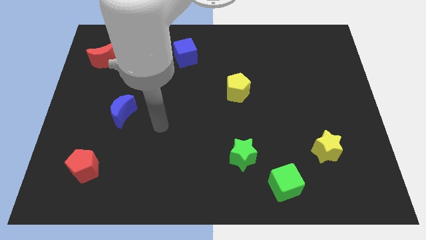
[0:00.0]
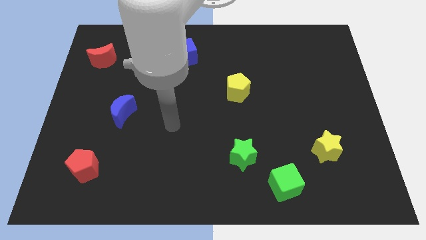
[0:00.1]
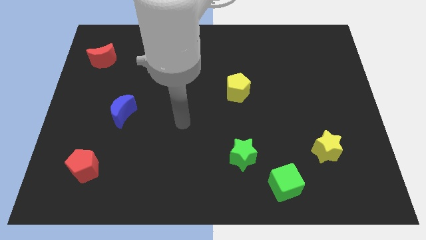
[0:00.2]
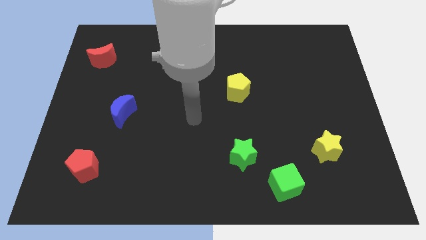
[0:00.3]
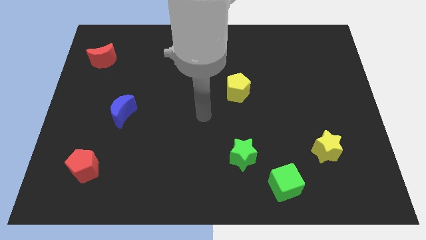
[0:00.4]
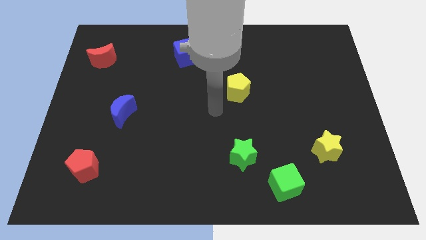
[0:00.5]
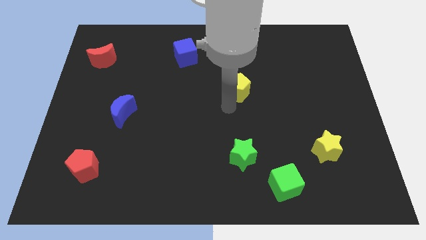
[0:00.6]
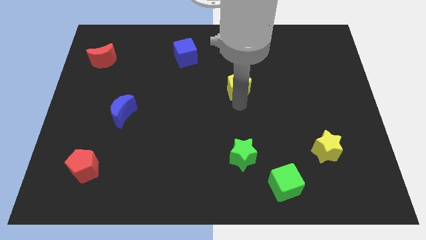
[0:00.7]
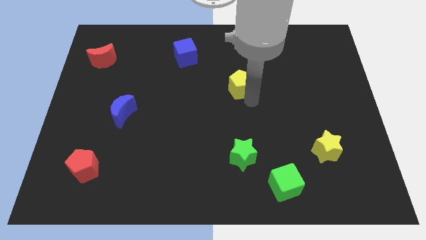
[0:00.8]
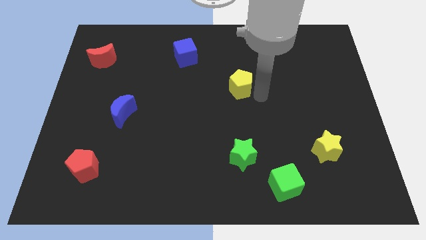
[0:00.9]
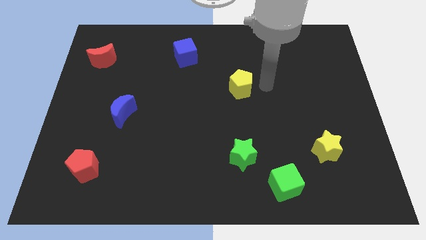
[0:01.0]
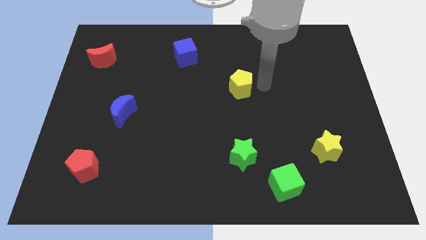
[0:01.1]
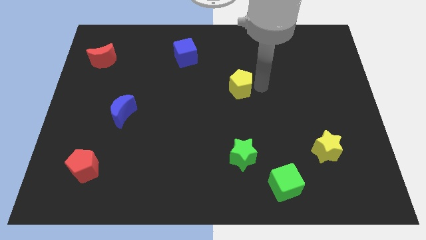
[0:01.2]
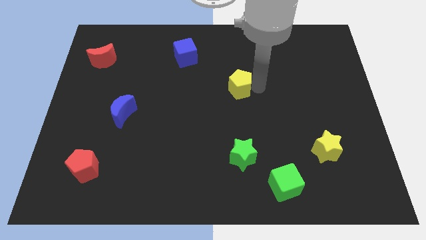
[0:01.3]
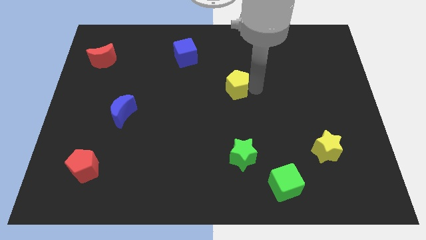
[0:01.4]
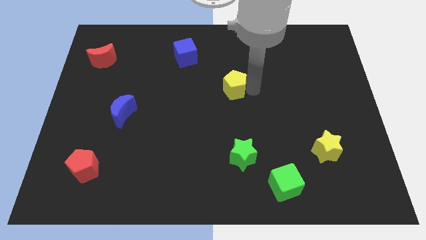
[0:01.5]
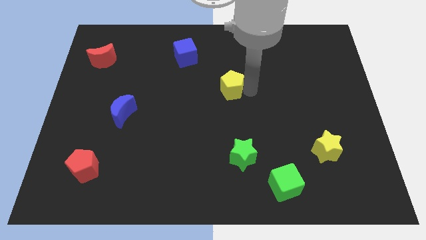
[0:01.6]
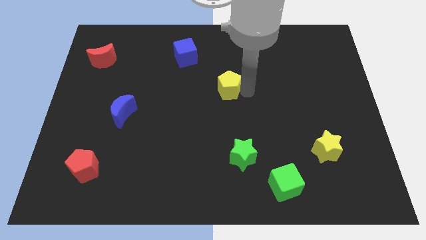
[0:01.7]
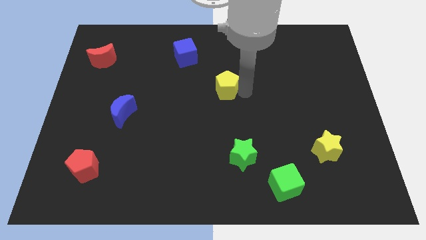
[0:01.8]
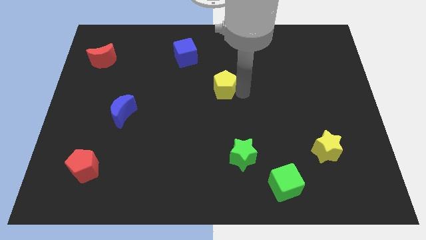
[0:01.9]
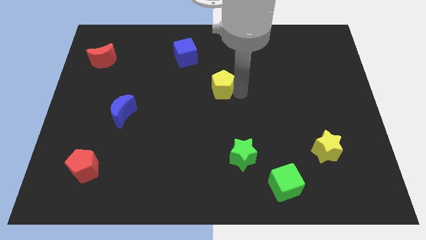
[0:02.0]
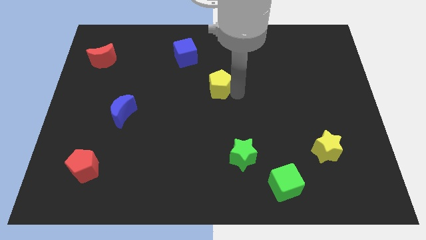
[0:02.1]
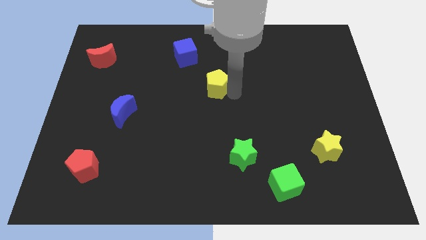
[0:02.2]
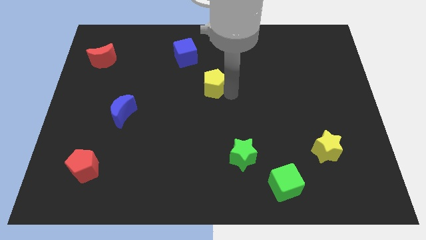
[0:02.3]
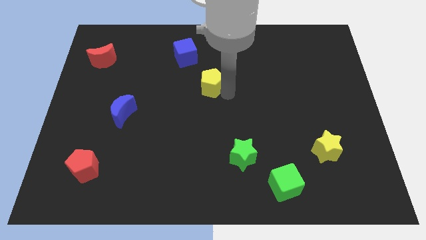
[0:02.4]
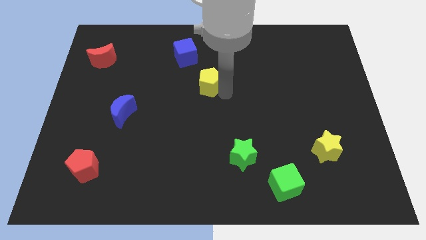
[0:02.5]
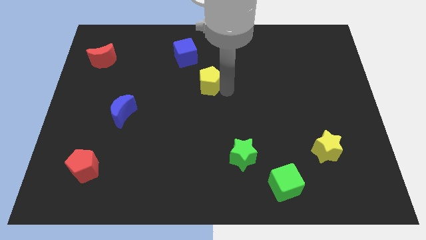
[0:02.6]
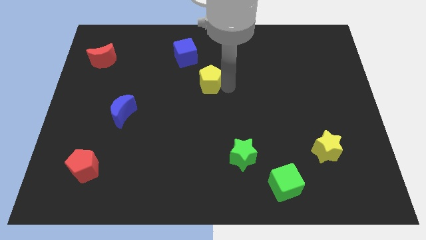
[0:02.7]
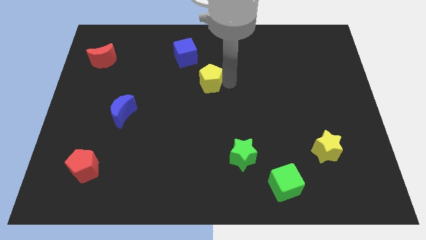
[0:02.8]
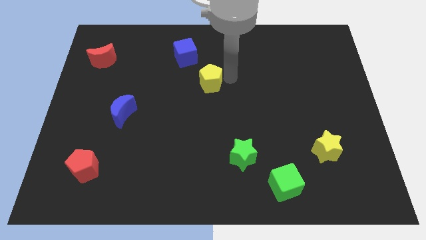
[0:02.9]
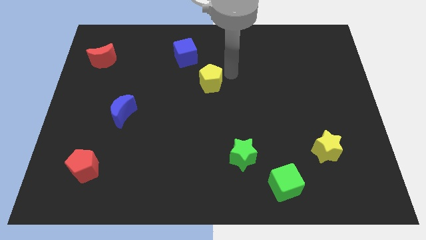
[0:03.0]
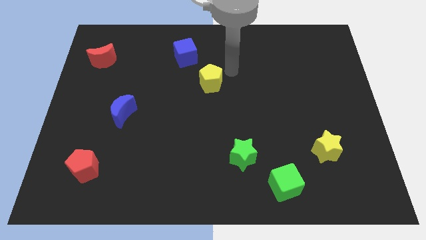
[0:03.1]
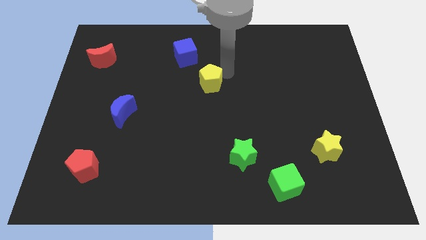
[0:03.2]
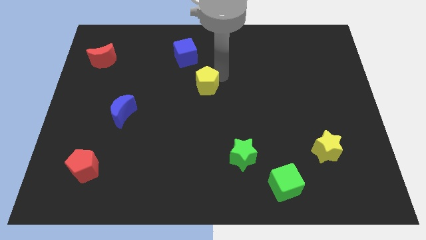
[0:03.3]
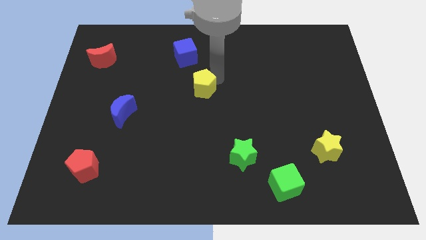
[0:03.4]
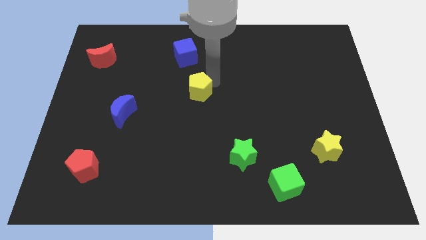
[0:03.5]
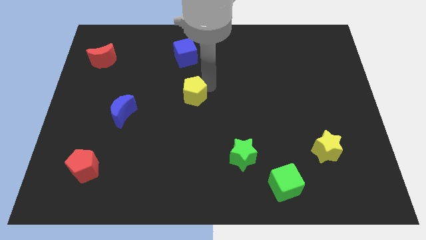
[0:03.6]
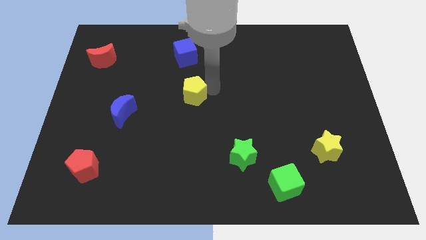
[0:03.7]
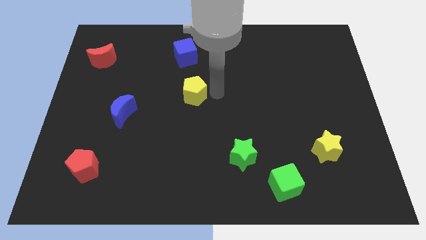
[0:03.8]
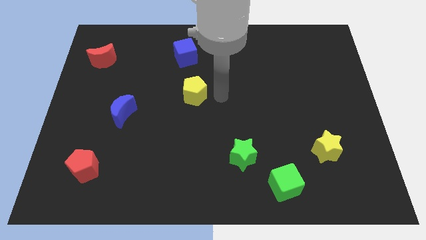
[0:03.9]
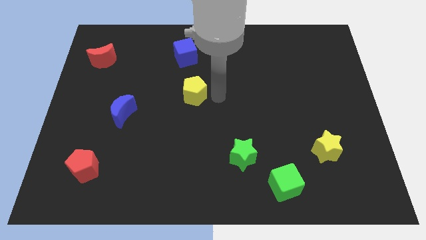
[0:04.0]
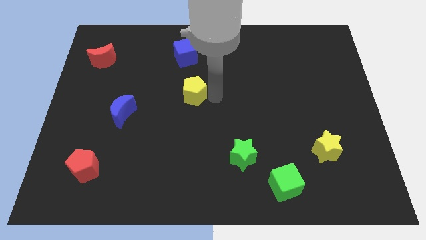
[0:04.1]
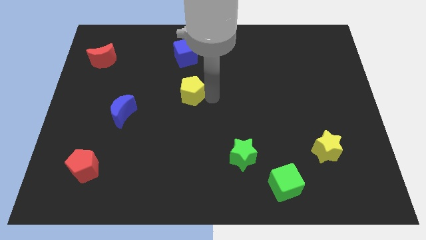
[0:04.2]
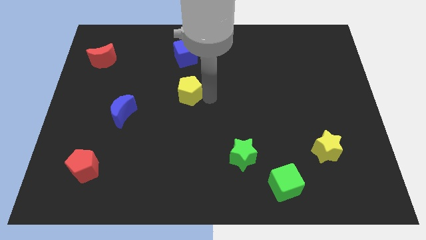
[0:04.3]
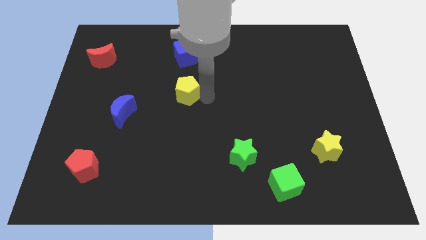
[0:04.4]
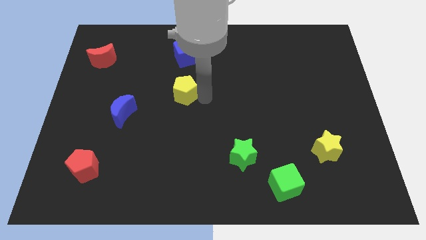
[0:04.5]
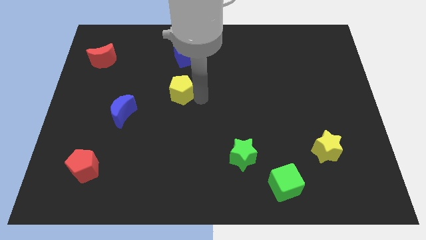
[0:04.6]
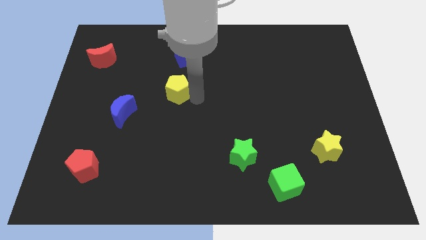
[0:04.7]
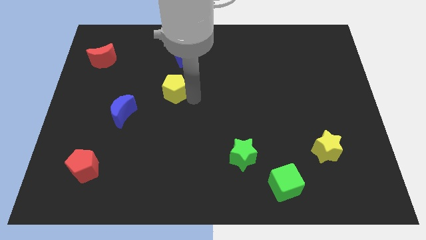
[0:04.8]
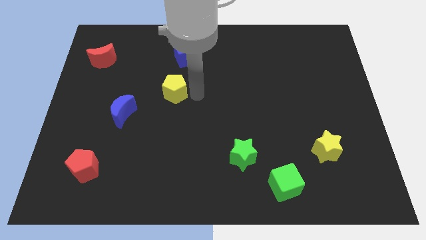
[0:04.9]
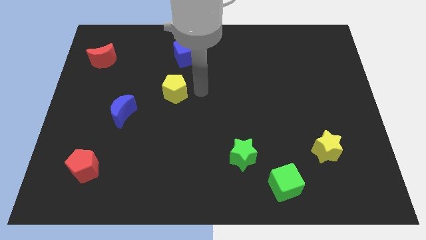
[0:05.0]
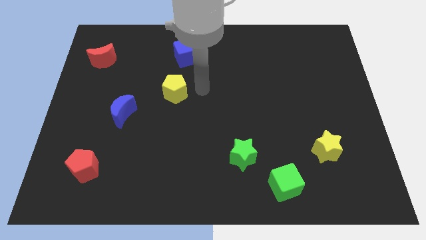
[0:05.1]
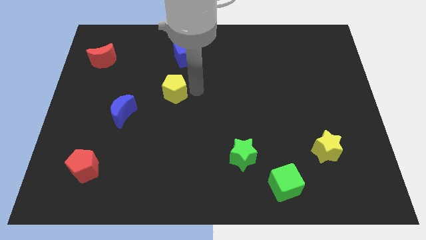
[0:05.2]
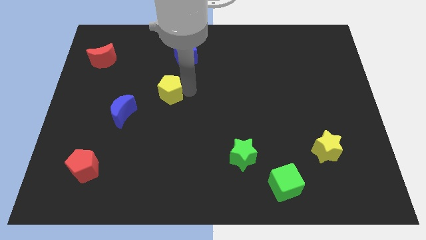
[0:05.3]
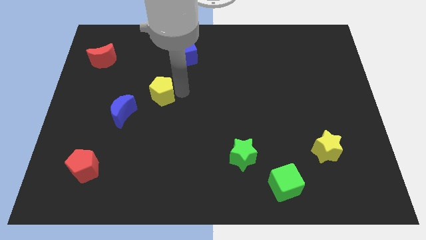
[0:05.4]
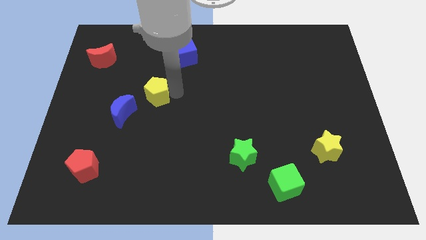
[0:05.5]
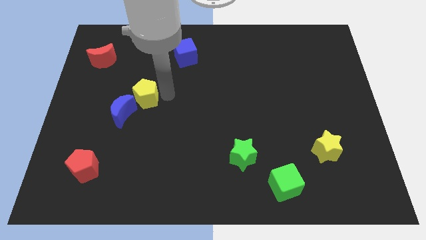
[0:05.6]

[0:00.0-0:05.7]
push the yellow pentagon to the left

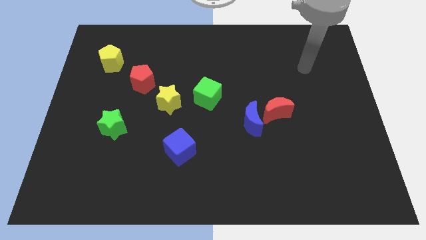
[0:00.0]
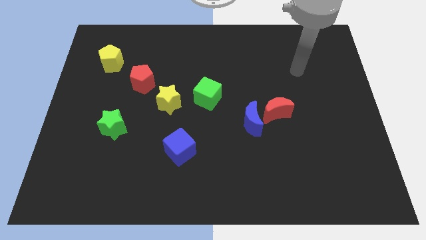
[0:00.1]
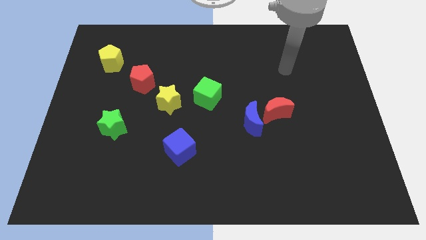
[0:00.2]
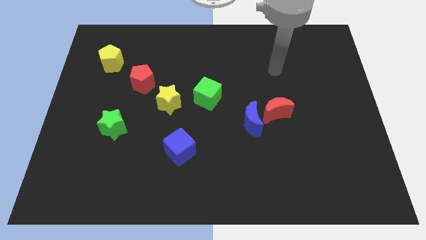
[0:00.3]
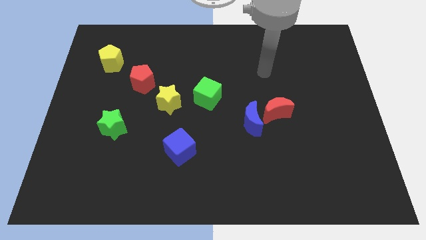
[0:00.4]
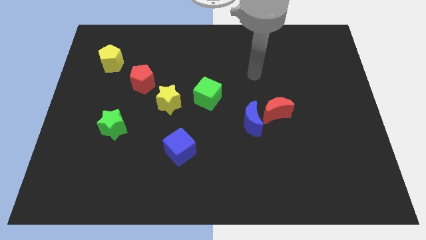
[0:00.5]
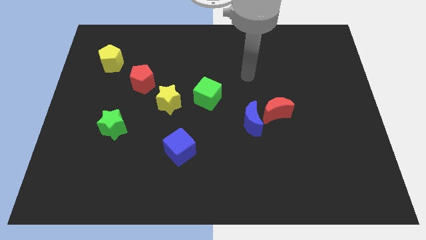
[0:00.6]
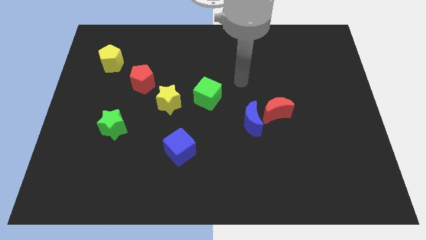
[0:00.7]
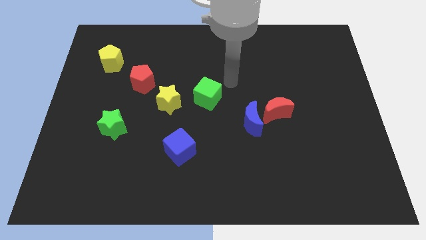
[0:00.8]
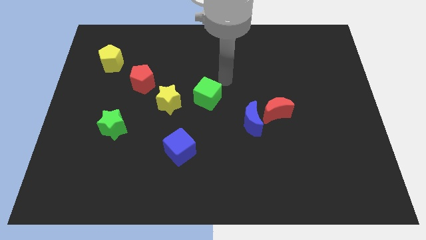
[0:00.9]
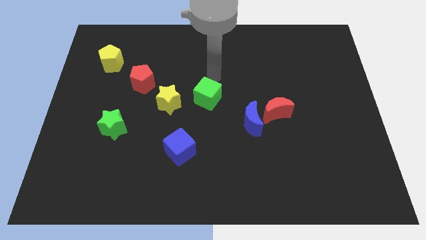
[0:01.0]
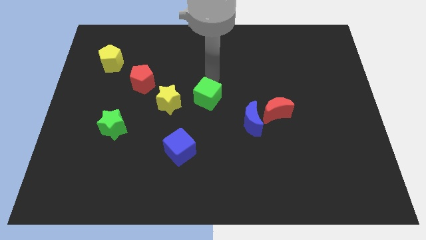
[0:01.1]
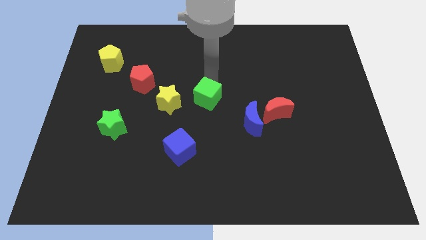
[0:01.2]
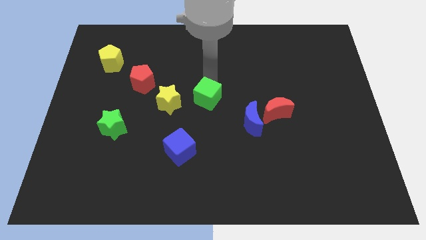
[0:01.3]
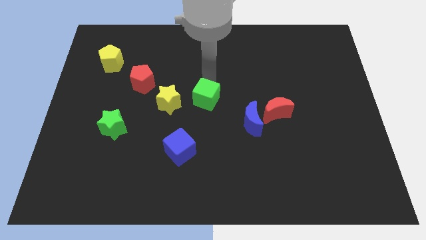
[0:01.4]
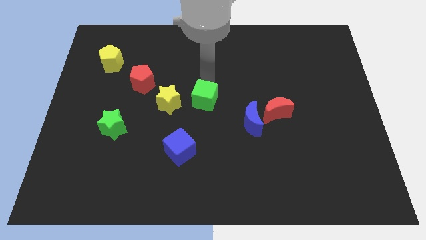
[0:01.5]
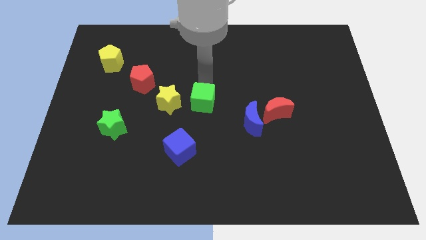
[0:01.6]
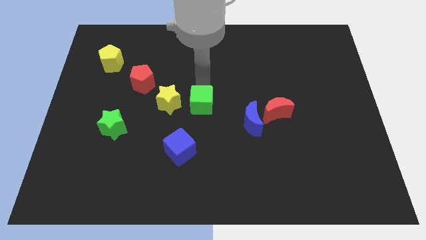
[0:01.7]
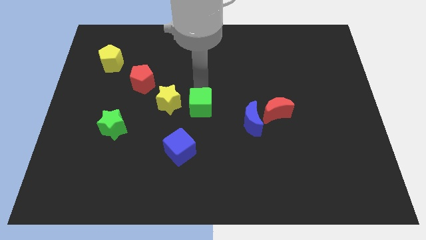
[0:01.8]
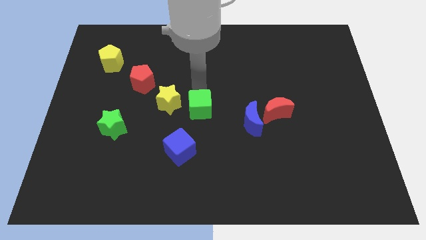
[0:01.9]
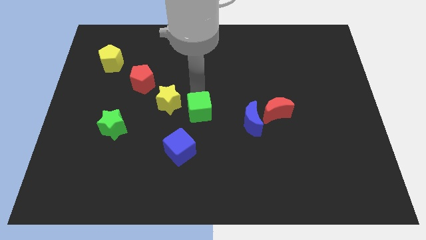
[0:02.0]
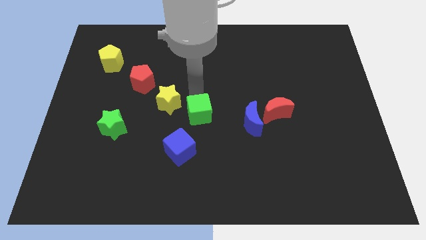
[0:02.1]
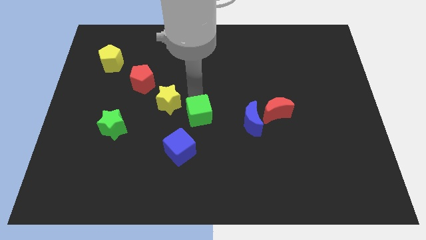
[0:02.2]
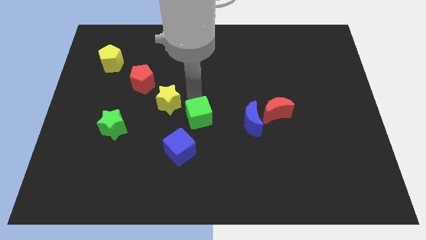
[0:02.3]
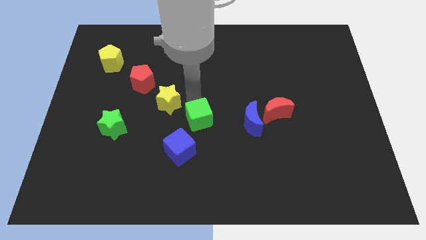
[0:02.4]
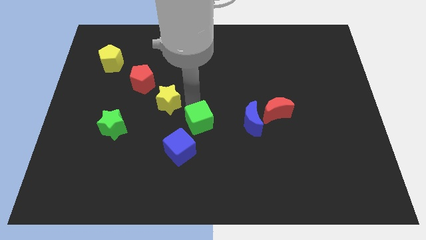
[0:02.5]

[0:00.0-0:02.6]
push the green cube a bit down
